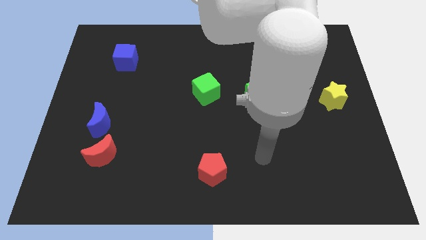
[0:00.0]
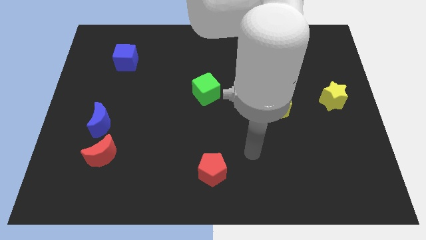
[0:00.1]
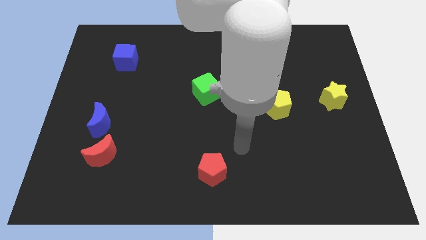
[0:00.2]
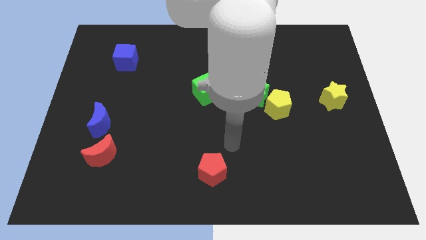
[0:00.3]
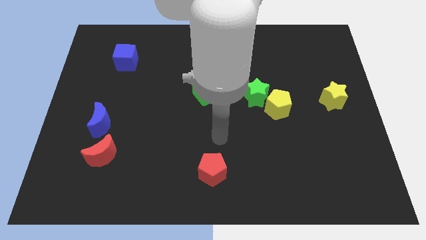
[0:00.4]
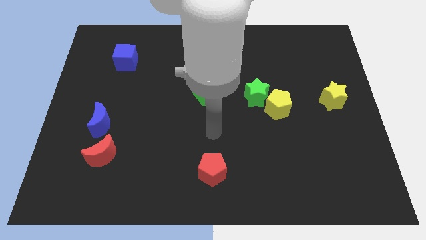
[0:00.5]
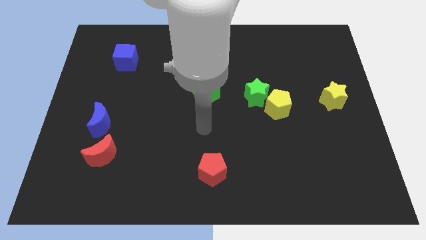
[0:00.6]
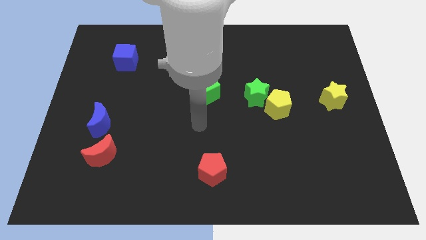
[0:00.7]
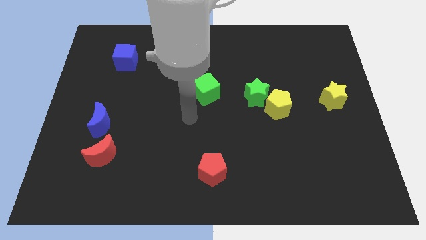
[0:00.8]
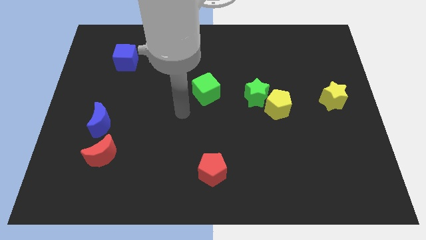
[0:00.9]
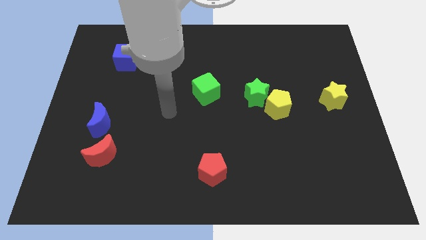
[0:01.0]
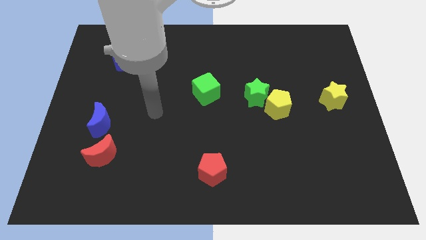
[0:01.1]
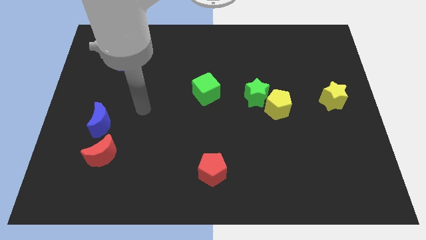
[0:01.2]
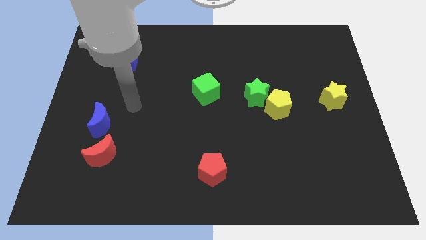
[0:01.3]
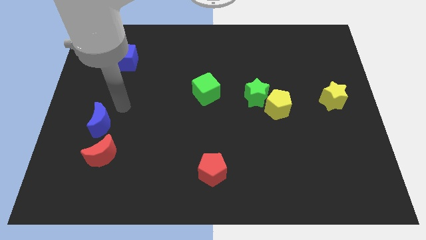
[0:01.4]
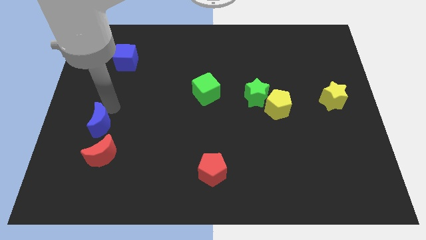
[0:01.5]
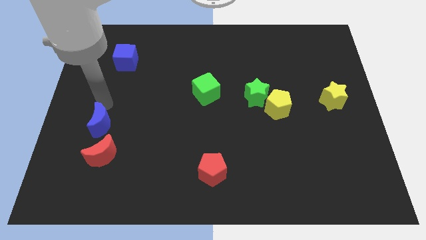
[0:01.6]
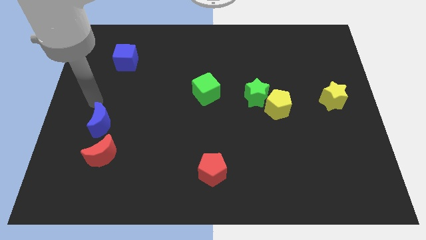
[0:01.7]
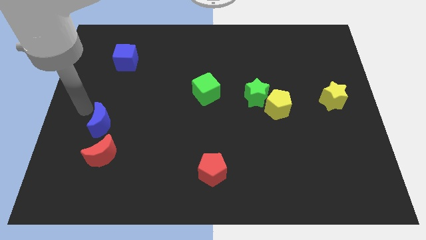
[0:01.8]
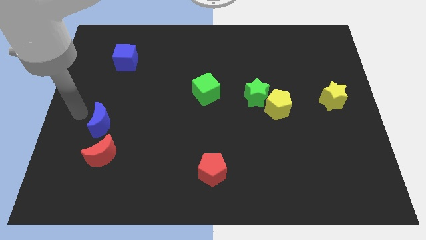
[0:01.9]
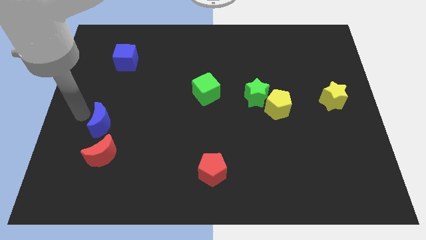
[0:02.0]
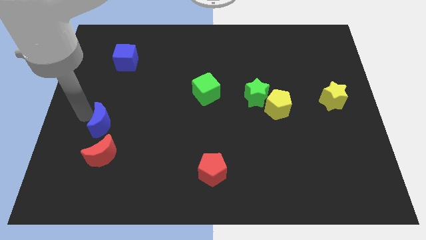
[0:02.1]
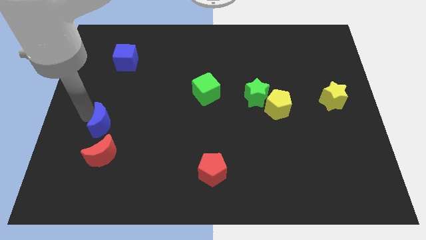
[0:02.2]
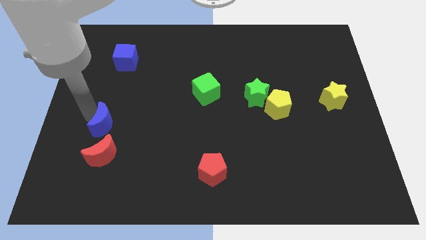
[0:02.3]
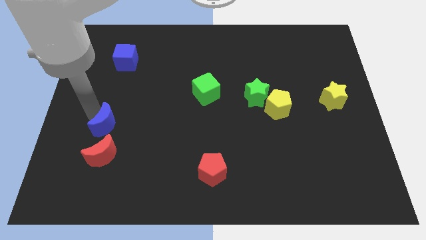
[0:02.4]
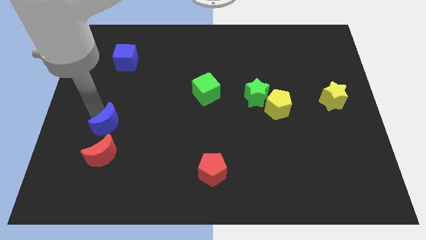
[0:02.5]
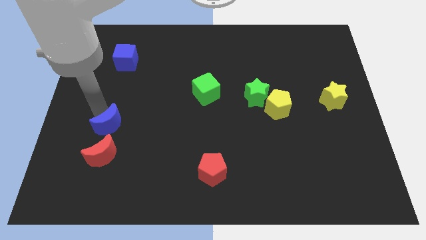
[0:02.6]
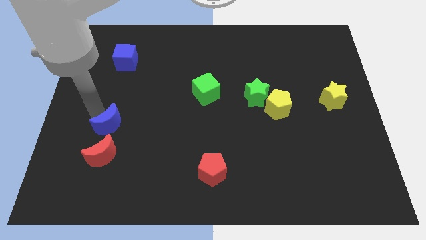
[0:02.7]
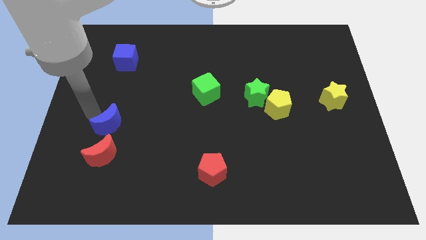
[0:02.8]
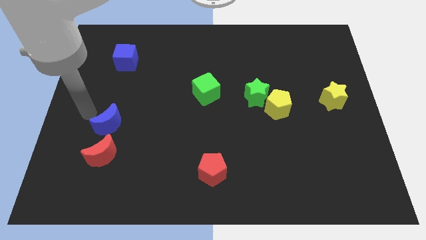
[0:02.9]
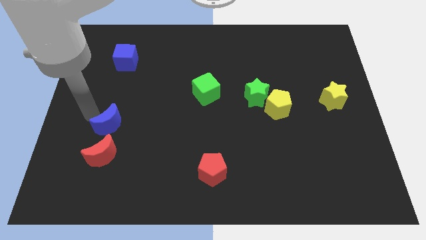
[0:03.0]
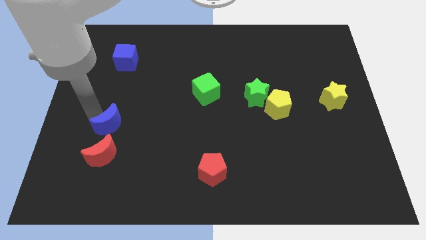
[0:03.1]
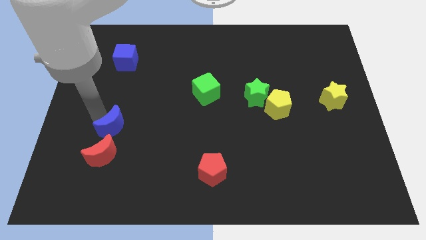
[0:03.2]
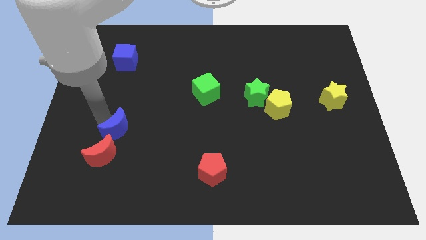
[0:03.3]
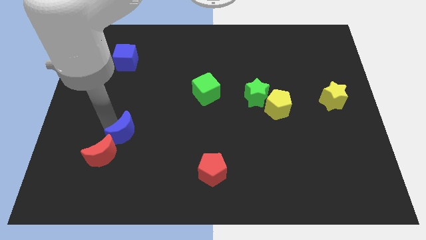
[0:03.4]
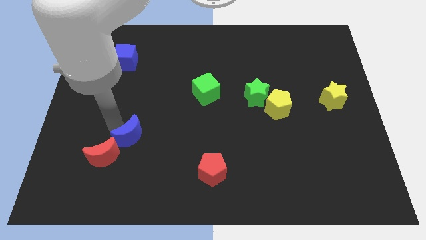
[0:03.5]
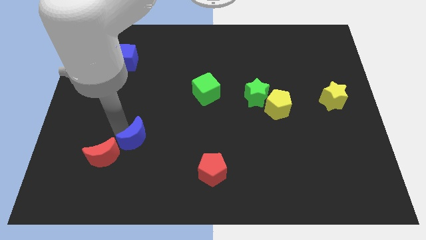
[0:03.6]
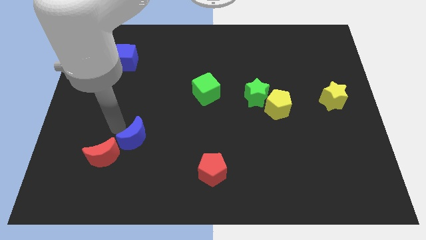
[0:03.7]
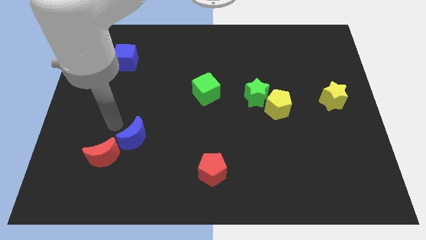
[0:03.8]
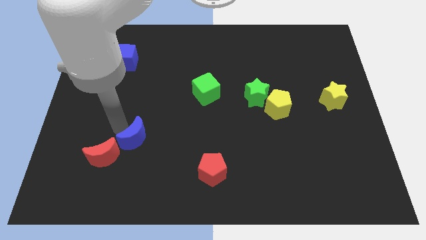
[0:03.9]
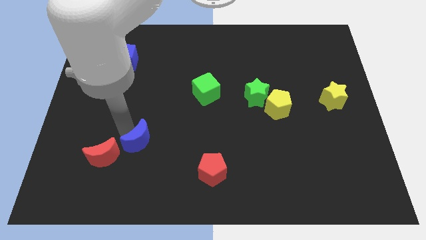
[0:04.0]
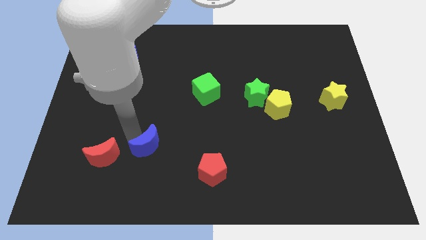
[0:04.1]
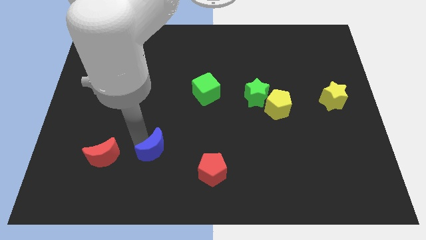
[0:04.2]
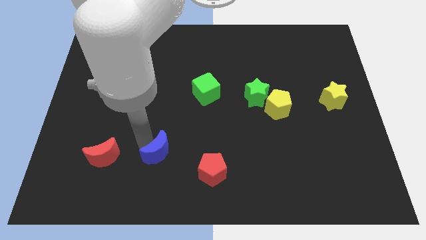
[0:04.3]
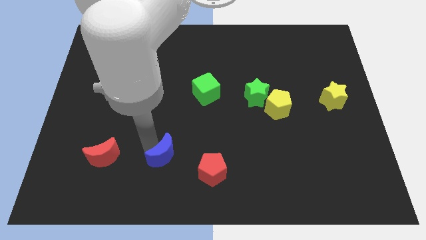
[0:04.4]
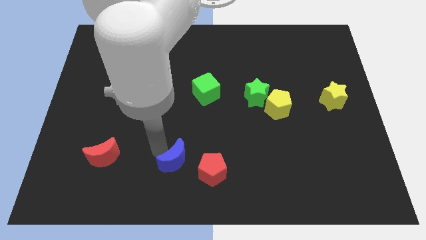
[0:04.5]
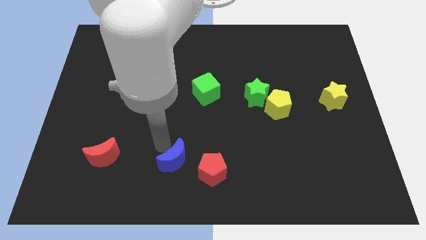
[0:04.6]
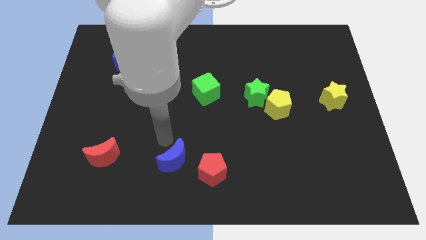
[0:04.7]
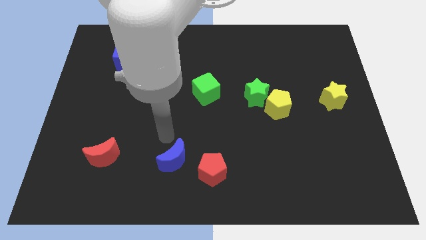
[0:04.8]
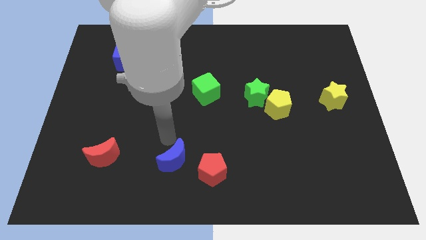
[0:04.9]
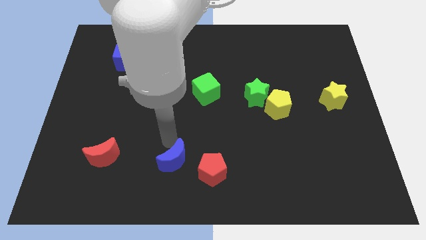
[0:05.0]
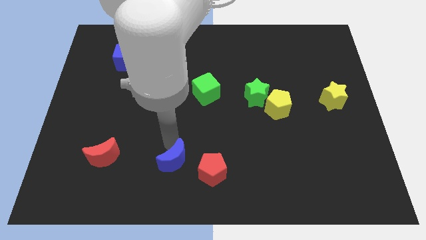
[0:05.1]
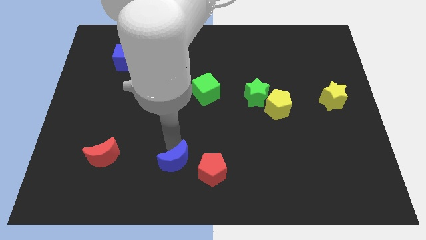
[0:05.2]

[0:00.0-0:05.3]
slide the blue moon to the bottom

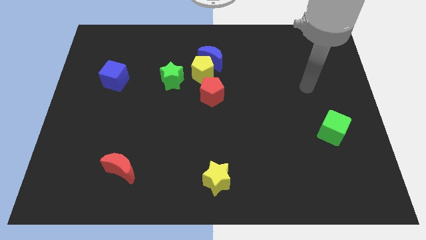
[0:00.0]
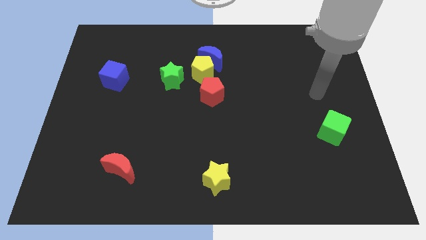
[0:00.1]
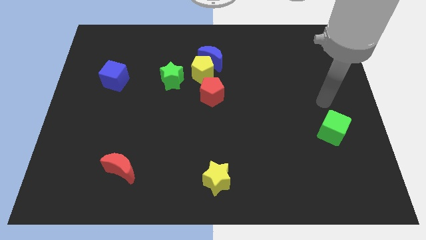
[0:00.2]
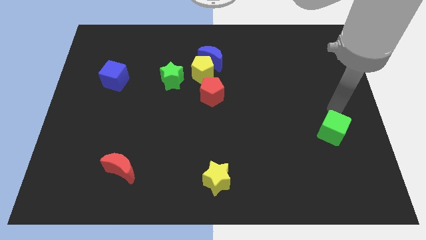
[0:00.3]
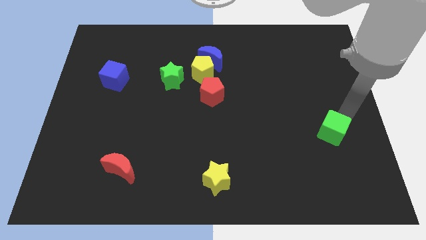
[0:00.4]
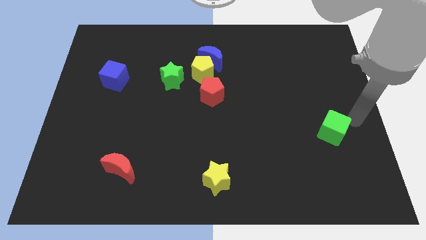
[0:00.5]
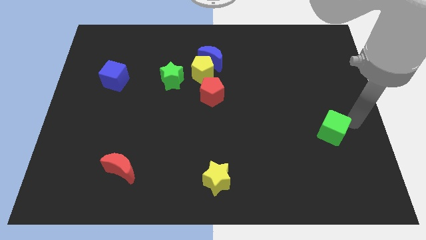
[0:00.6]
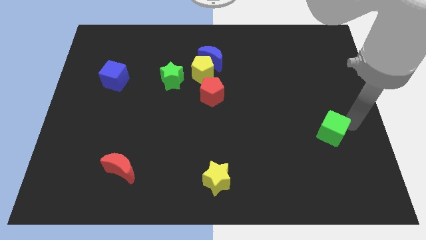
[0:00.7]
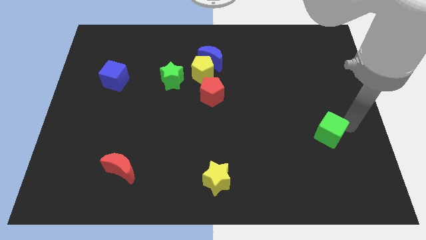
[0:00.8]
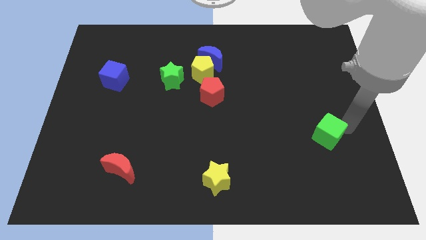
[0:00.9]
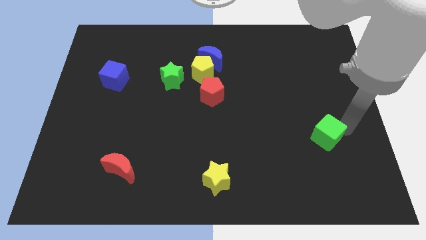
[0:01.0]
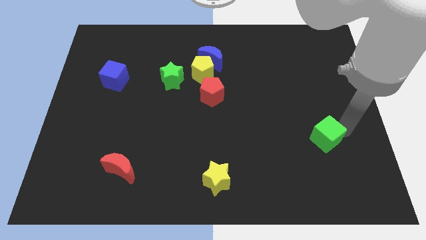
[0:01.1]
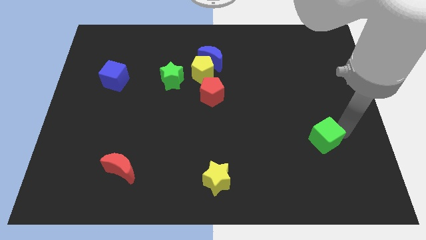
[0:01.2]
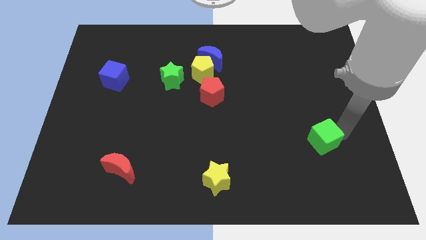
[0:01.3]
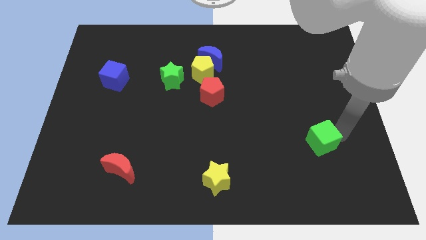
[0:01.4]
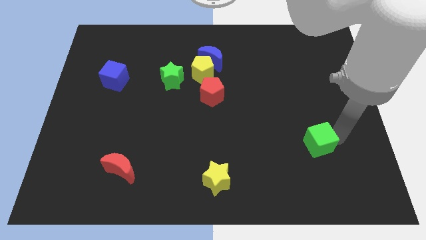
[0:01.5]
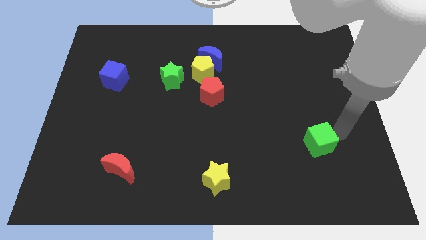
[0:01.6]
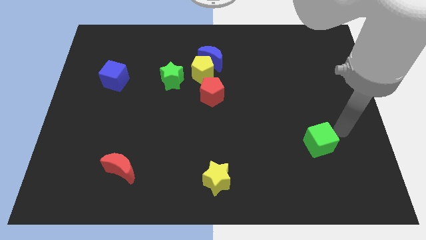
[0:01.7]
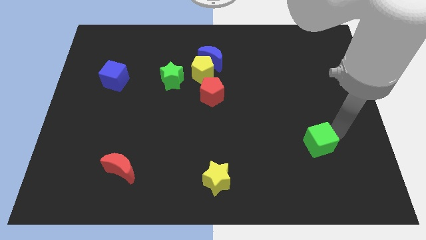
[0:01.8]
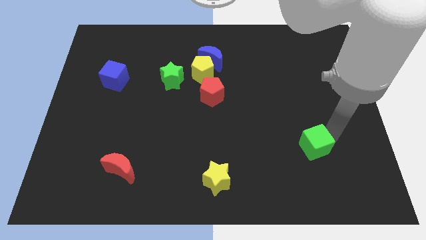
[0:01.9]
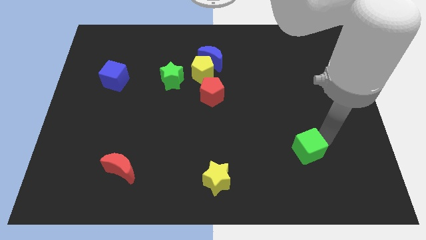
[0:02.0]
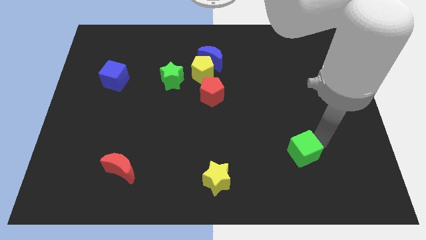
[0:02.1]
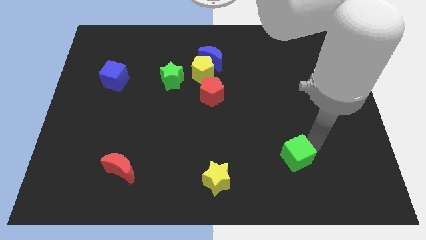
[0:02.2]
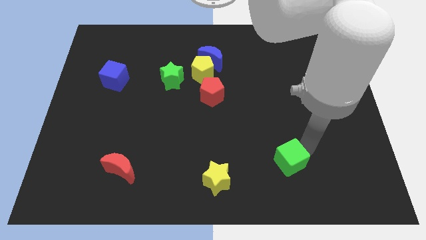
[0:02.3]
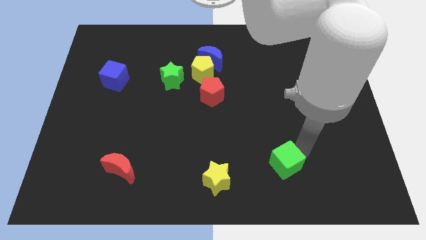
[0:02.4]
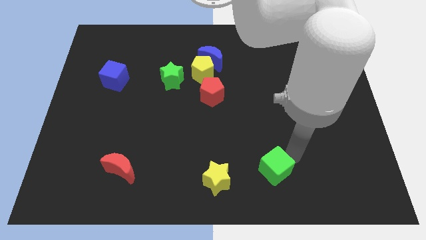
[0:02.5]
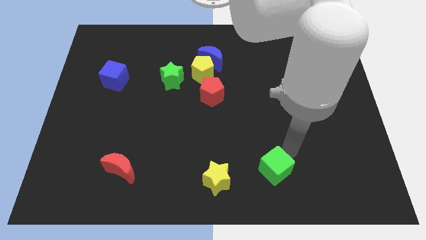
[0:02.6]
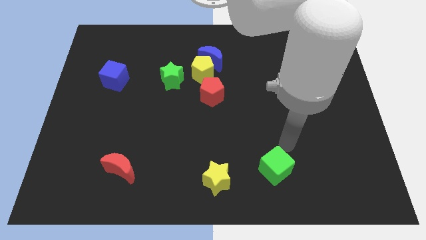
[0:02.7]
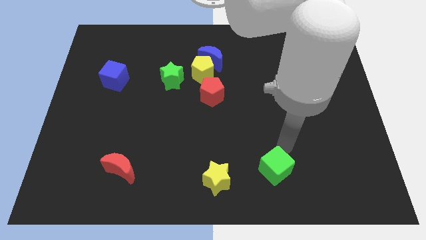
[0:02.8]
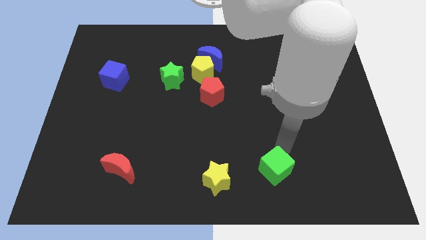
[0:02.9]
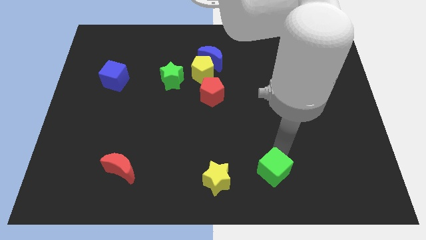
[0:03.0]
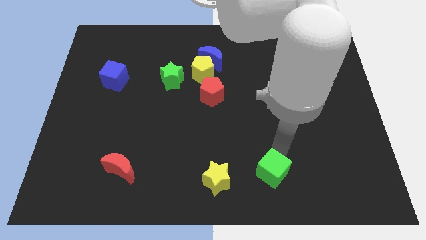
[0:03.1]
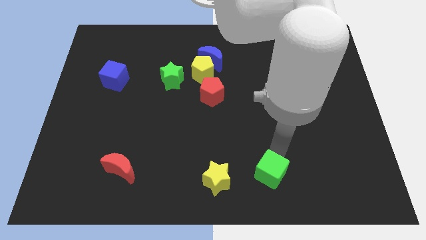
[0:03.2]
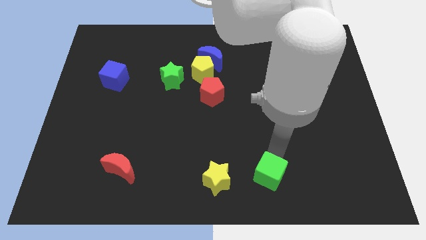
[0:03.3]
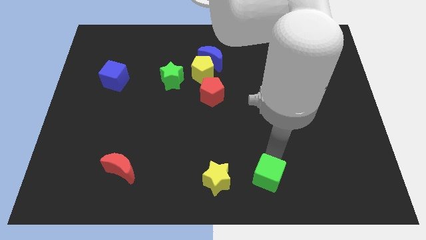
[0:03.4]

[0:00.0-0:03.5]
put the green cube to the bottom side
